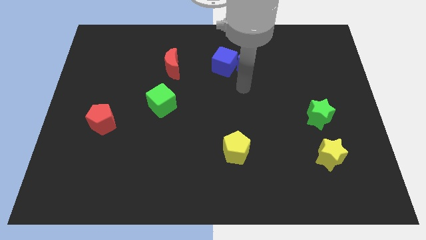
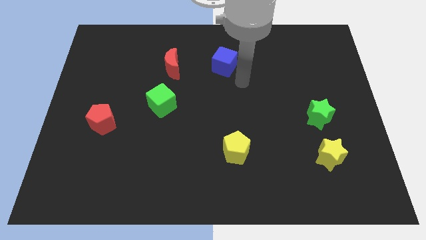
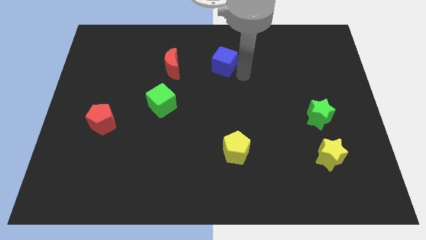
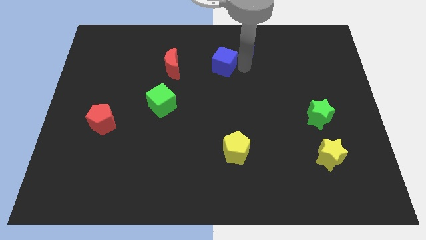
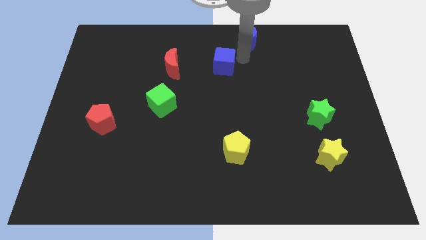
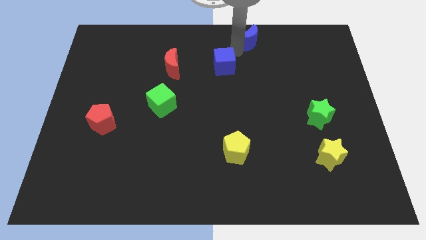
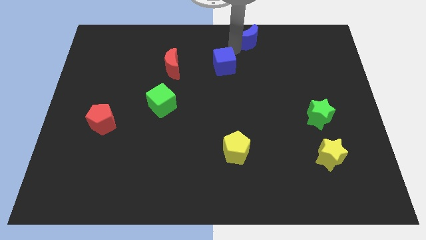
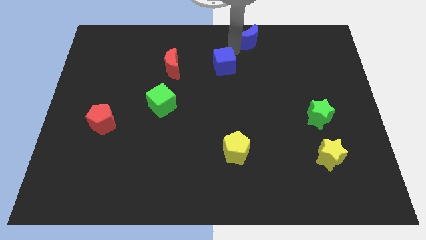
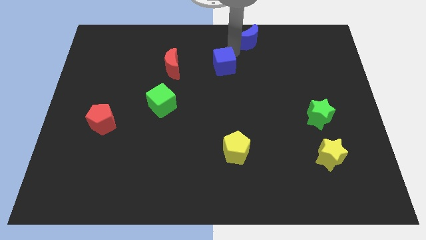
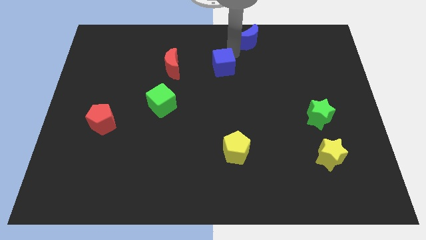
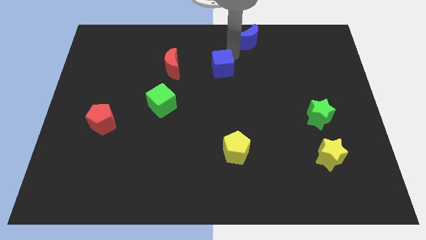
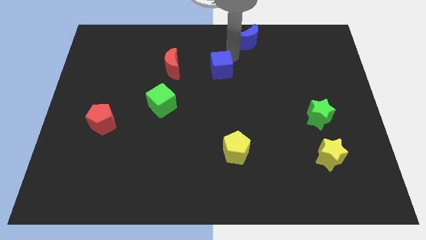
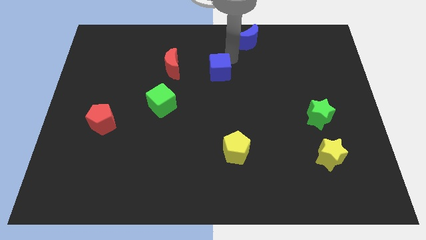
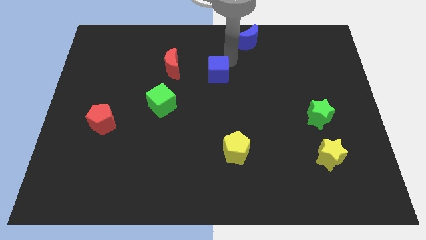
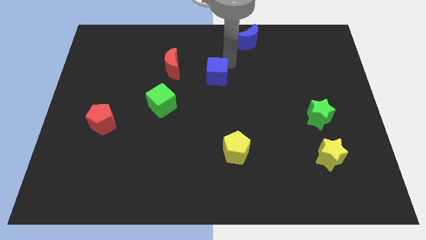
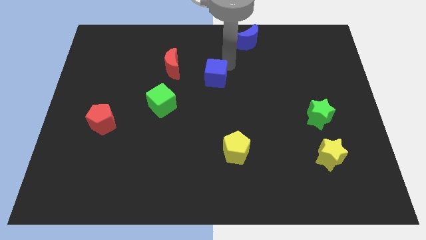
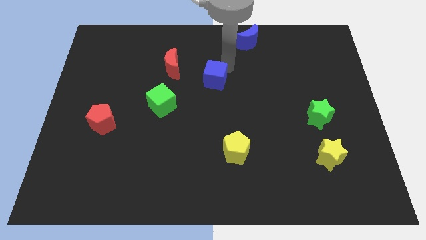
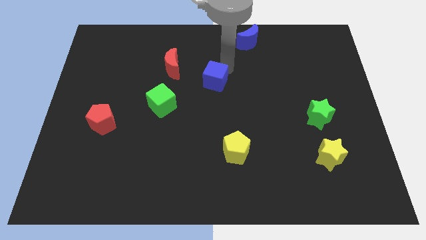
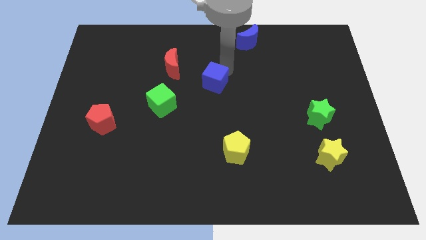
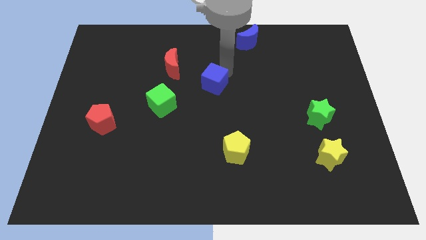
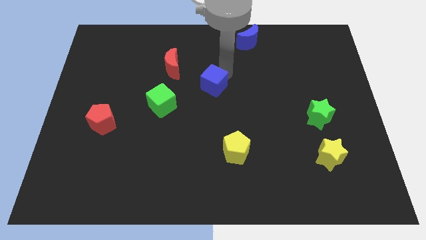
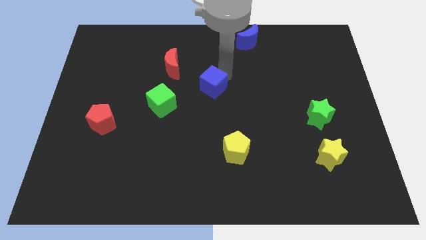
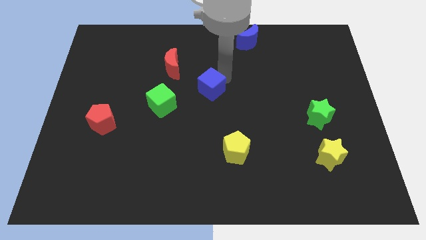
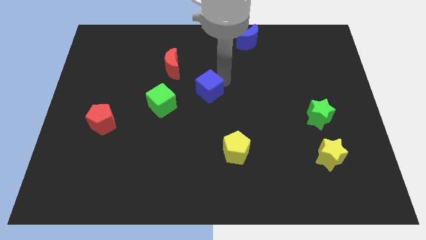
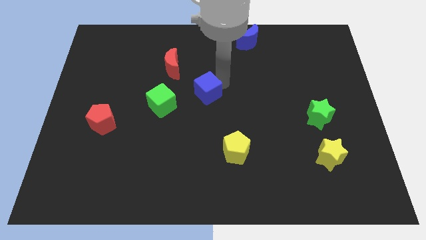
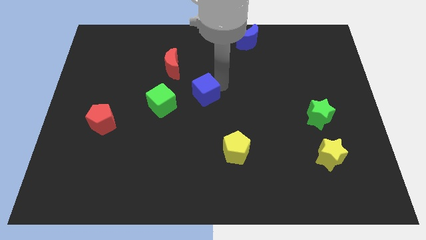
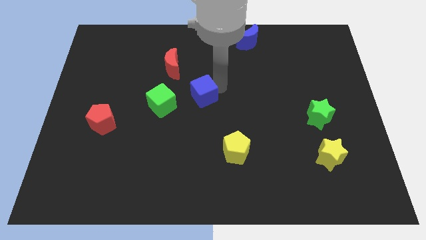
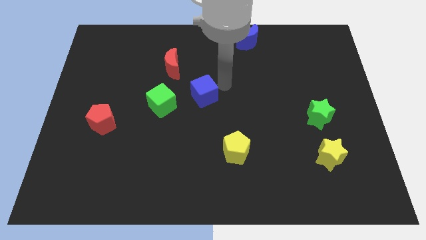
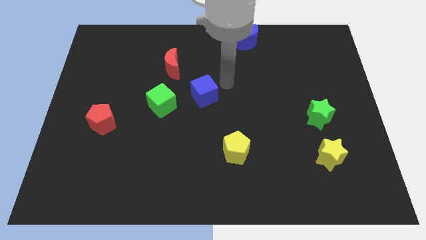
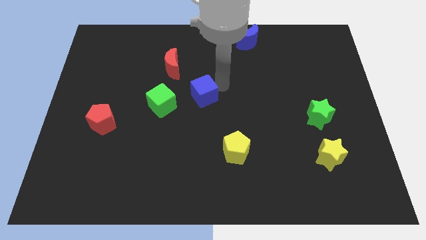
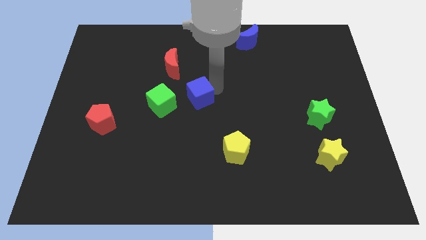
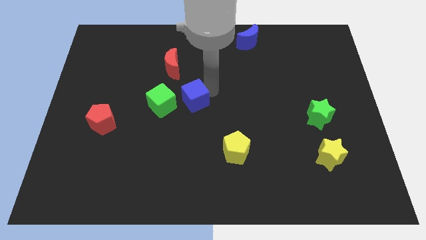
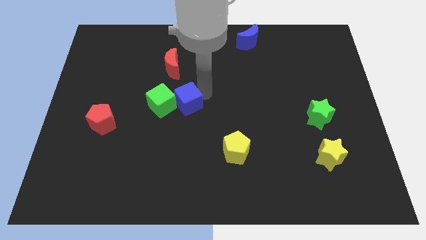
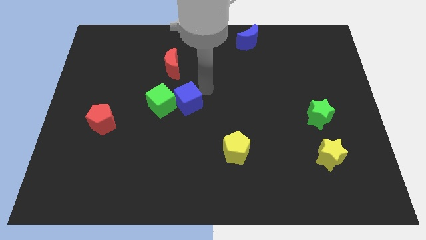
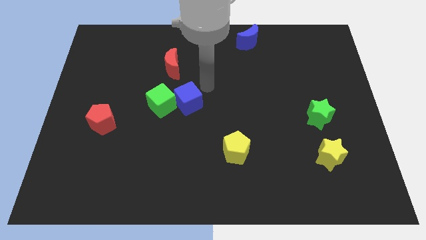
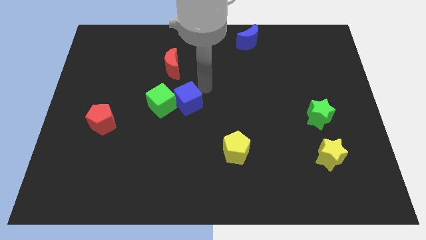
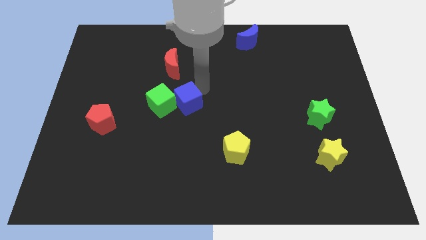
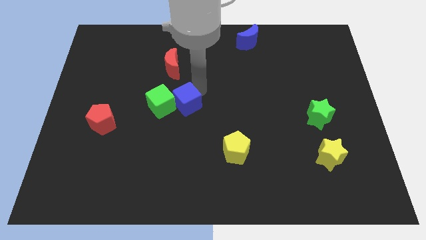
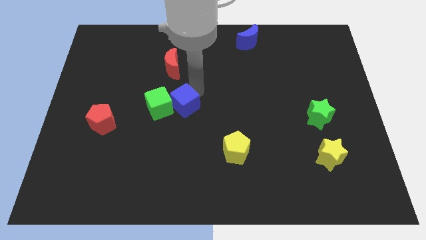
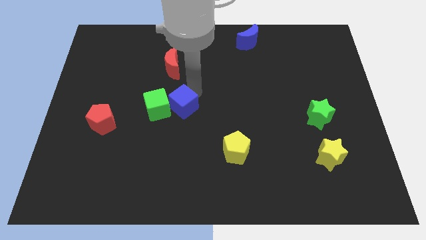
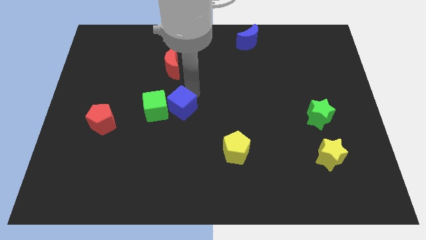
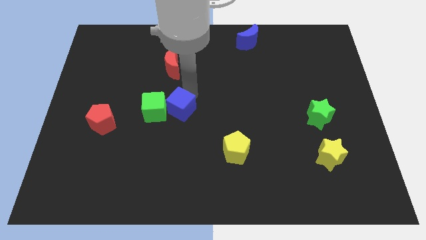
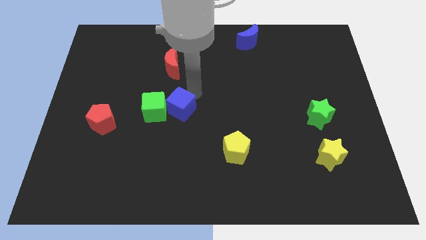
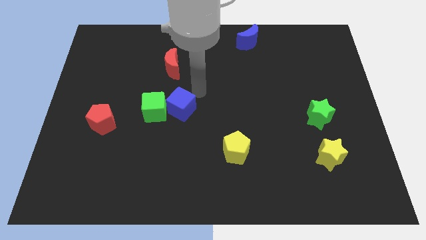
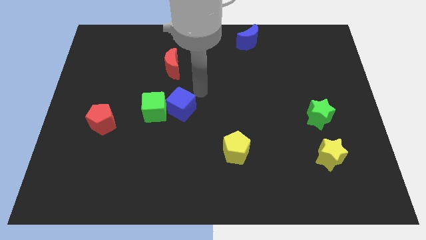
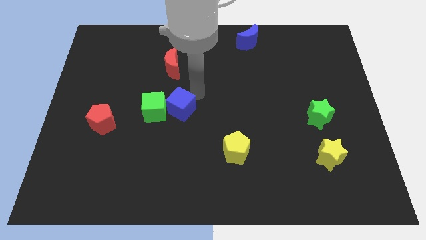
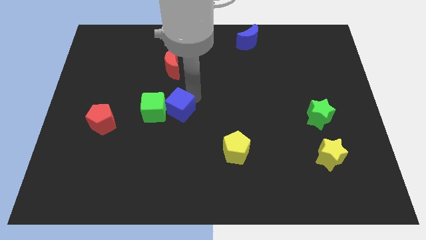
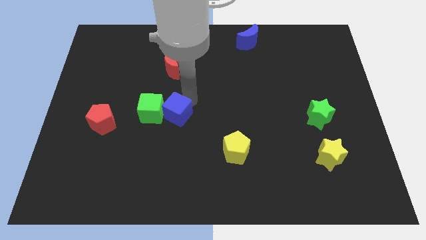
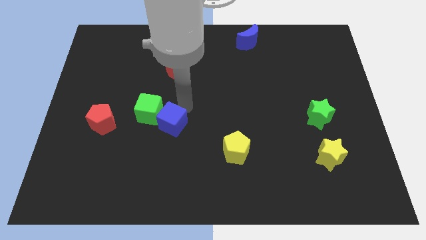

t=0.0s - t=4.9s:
push the blue cube downwards and to the left diagonally

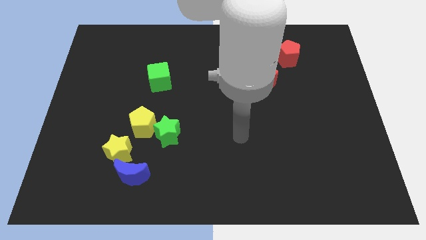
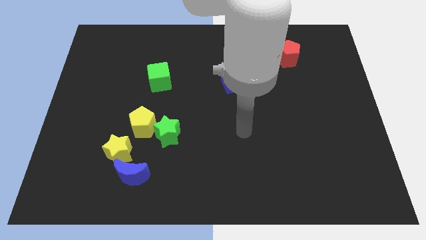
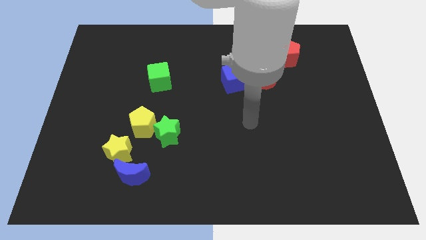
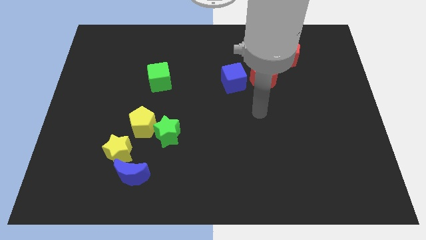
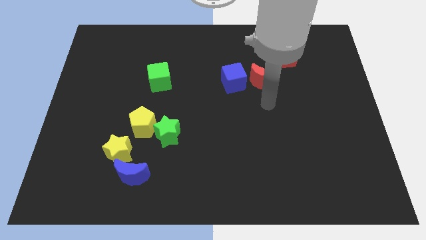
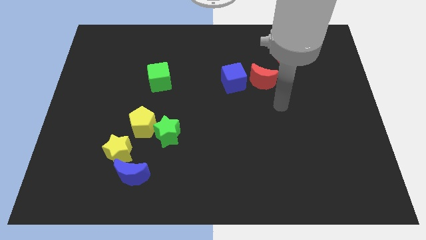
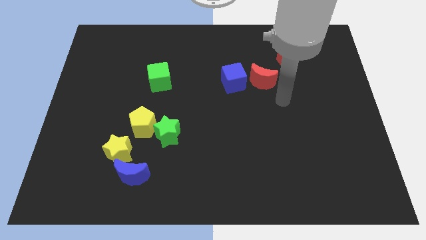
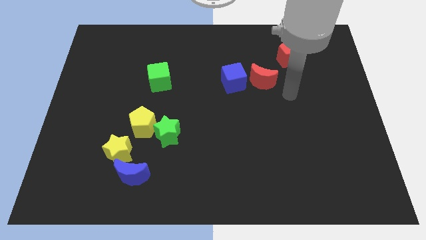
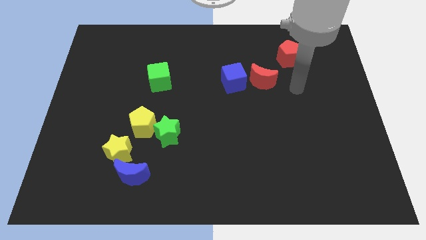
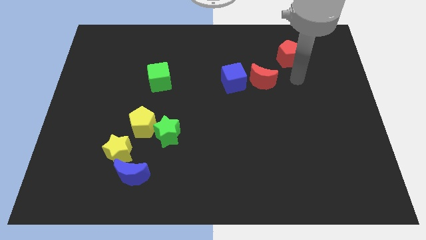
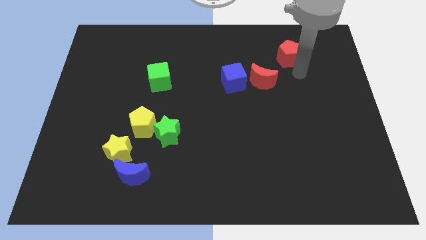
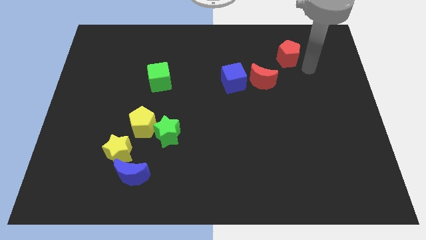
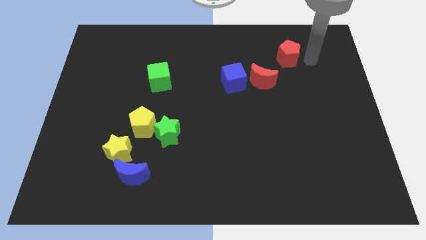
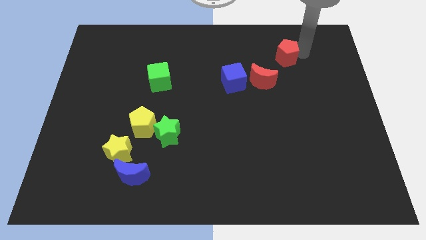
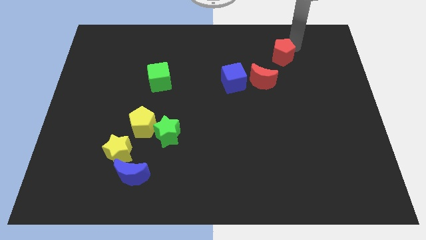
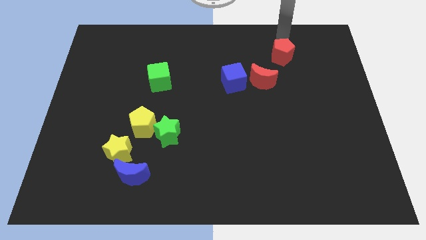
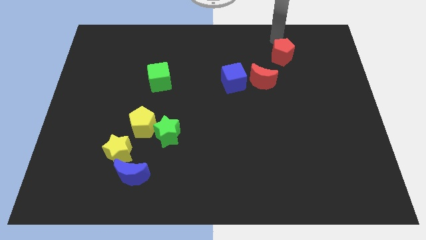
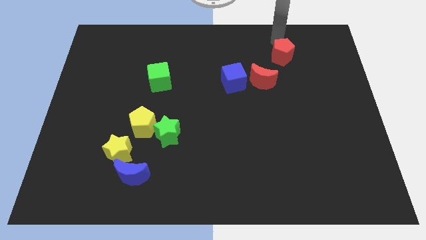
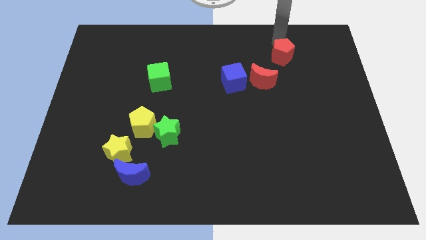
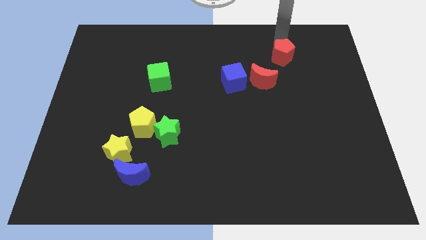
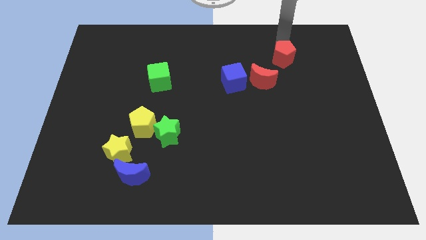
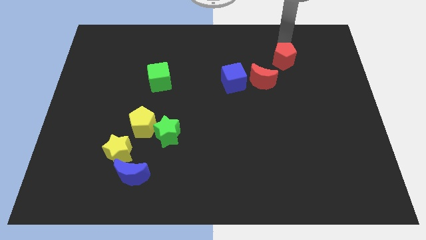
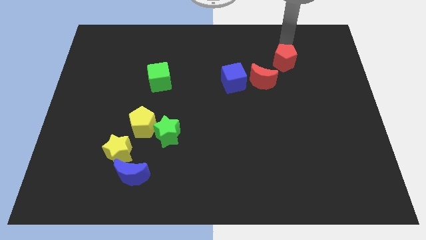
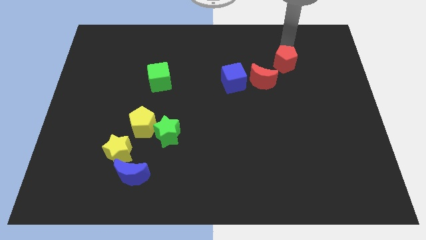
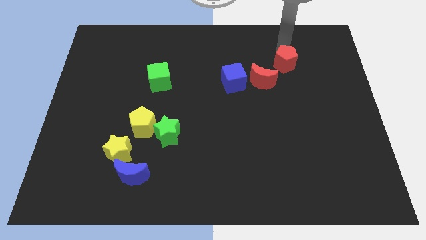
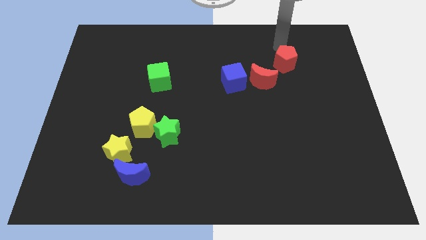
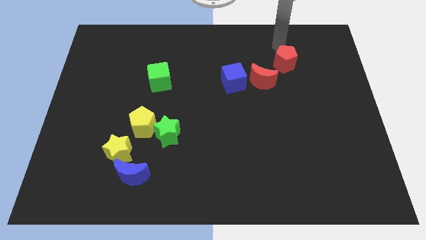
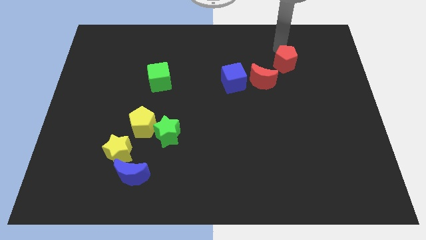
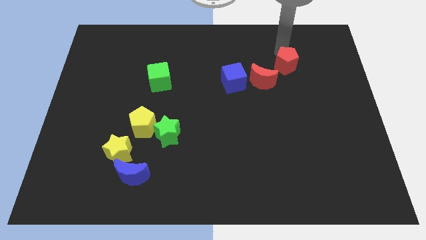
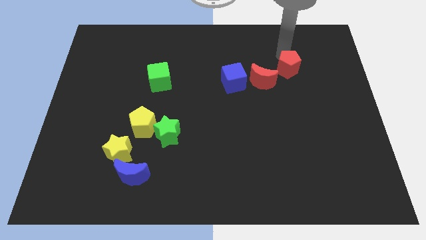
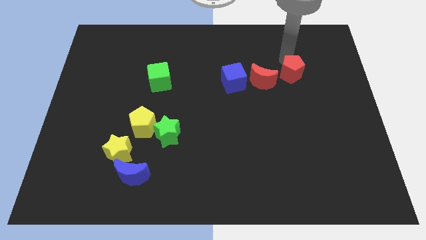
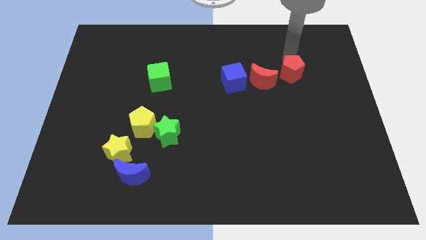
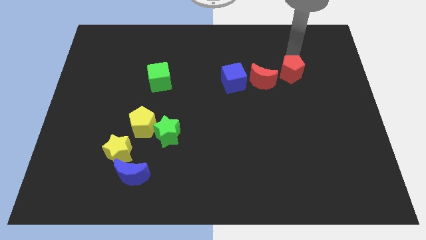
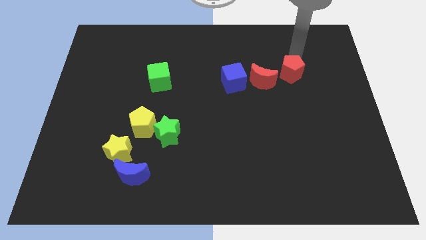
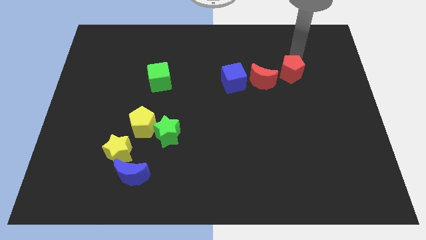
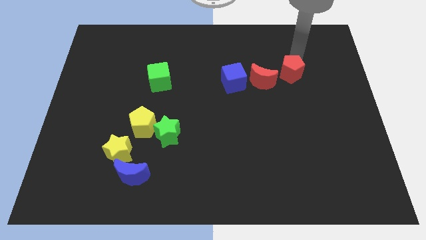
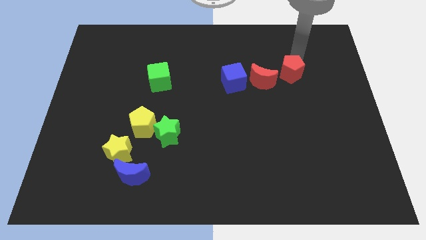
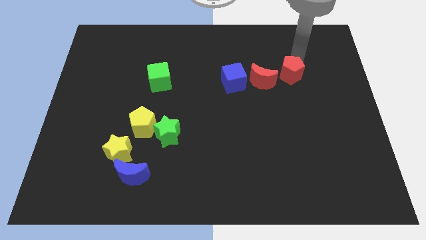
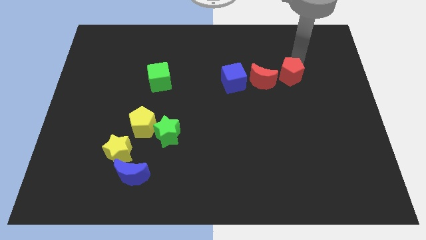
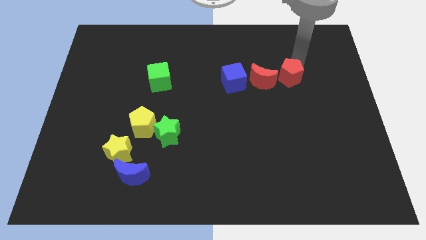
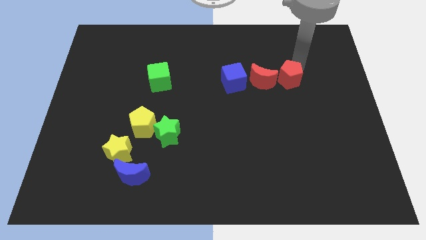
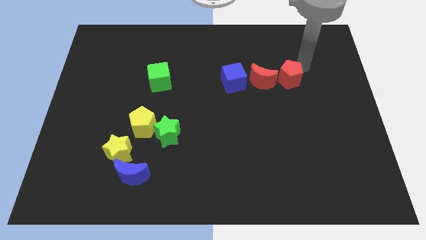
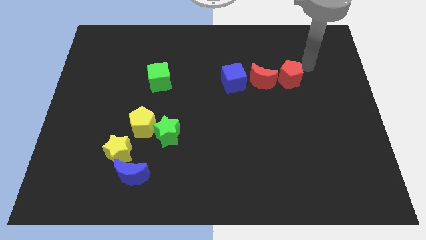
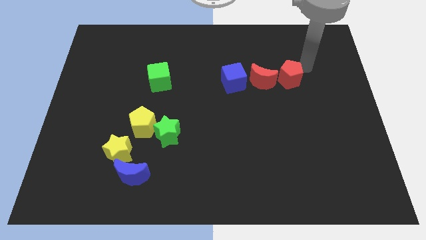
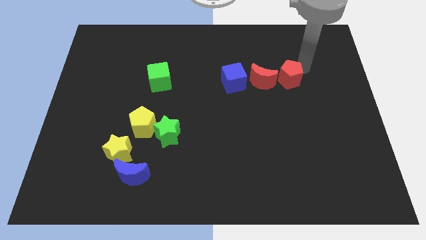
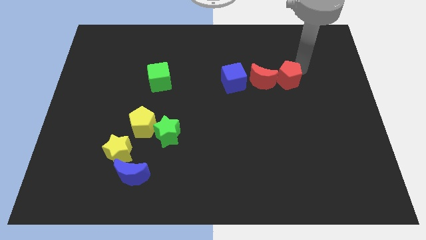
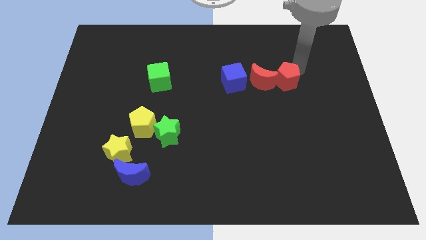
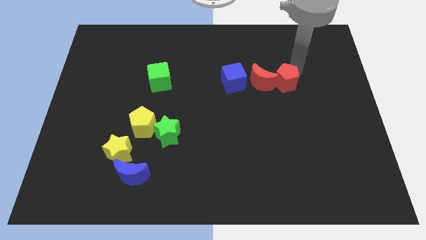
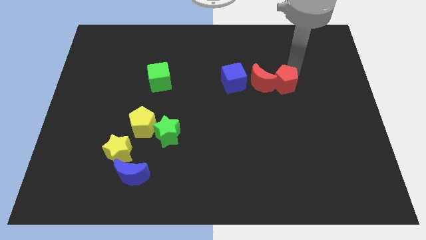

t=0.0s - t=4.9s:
slide the red pentagon slightly downwards and then left
